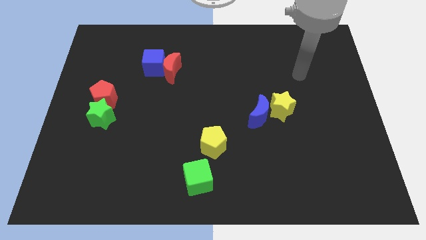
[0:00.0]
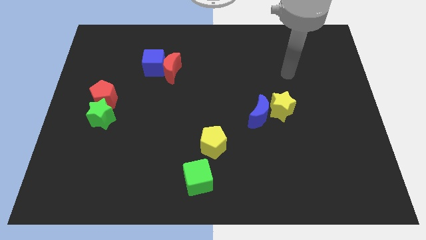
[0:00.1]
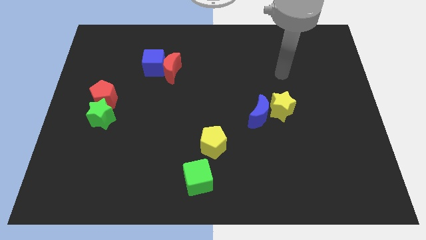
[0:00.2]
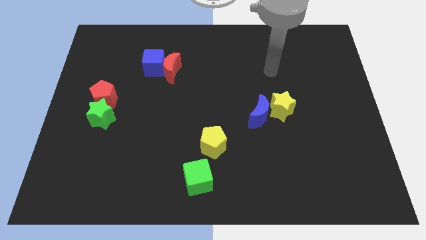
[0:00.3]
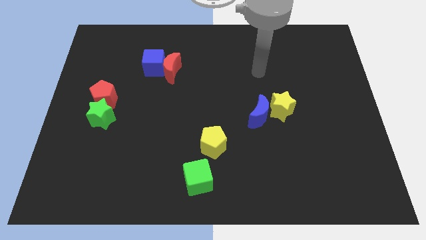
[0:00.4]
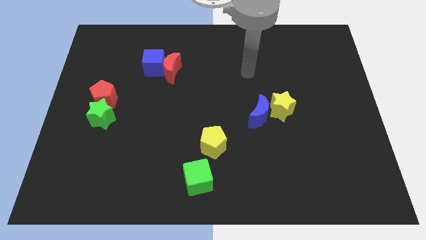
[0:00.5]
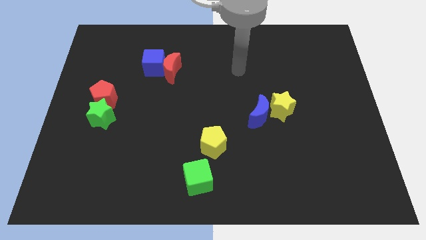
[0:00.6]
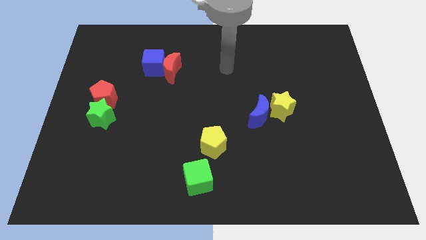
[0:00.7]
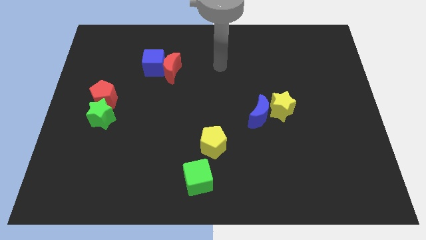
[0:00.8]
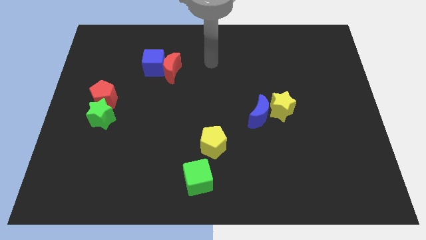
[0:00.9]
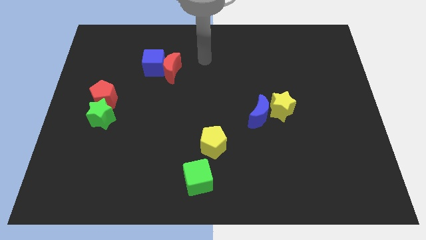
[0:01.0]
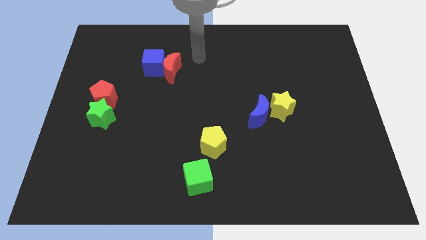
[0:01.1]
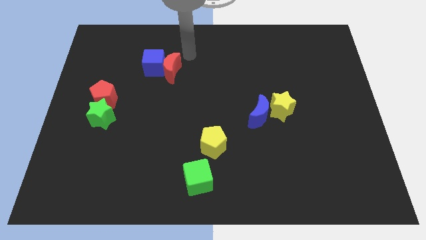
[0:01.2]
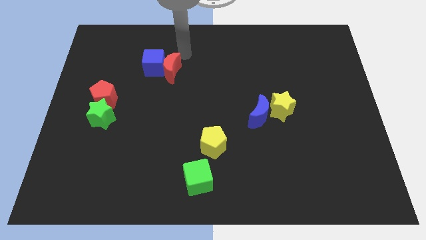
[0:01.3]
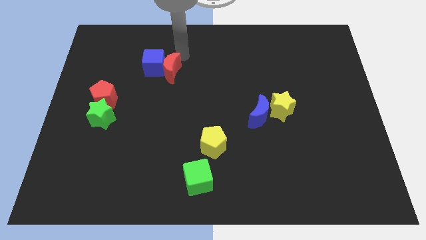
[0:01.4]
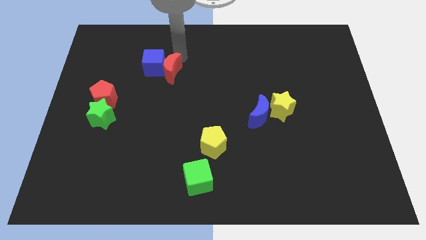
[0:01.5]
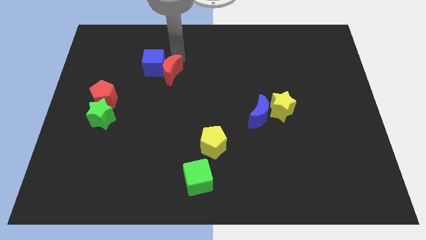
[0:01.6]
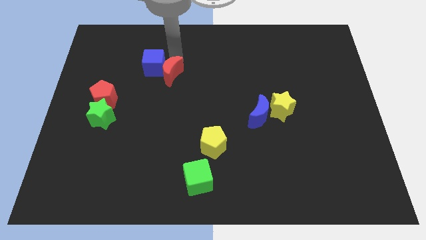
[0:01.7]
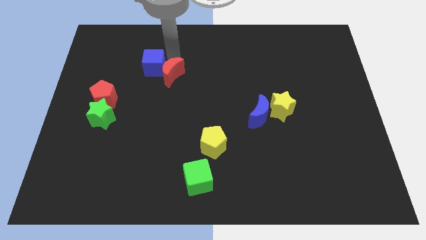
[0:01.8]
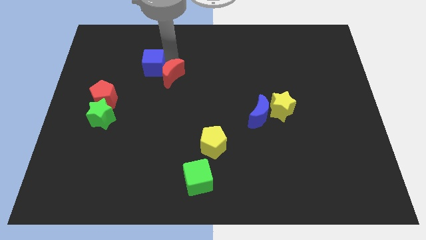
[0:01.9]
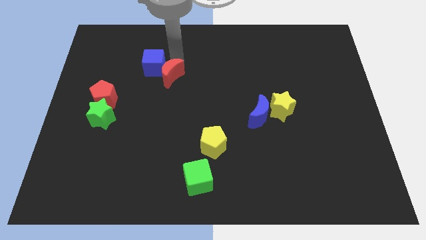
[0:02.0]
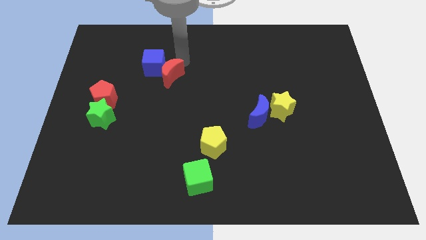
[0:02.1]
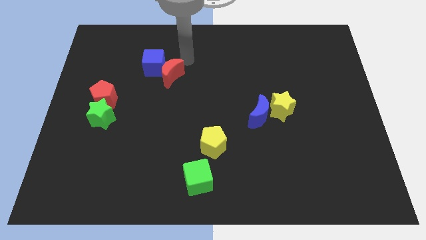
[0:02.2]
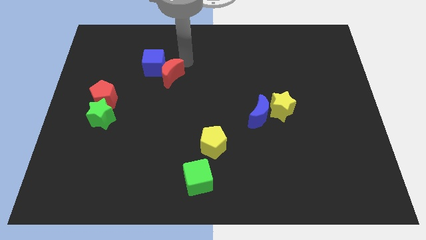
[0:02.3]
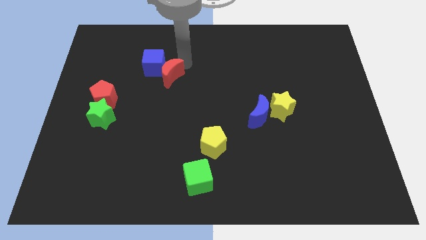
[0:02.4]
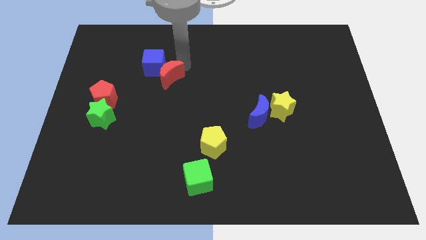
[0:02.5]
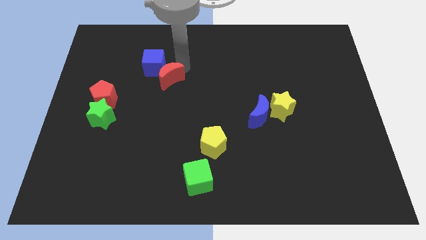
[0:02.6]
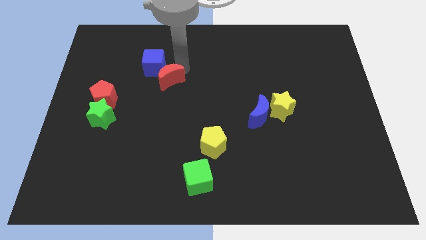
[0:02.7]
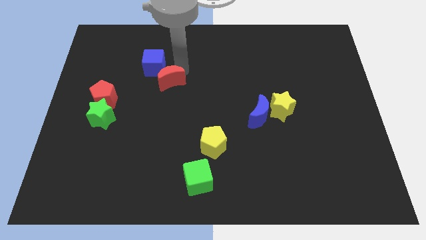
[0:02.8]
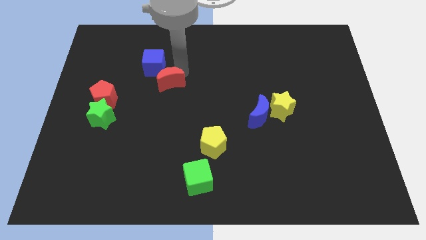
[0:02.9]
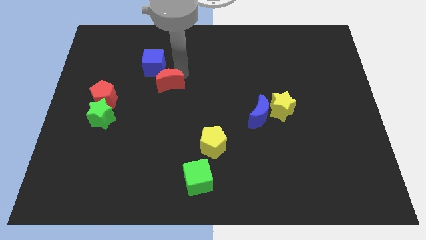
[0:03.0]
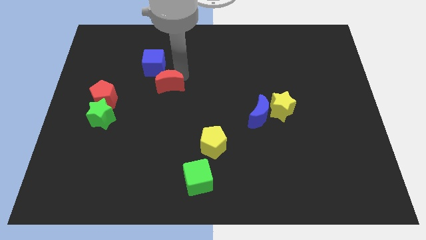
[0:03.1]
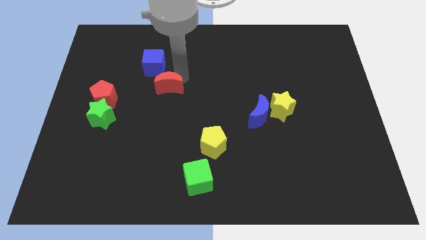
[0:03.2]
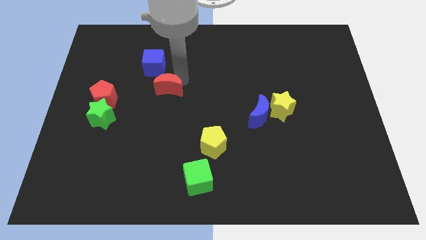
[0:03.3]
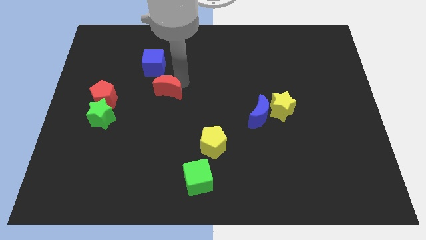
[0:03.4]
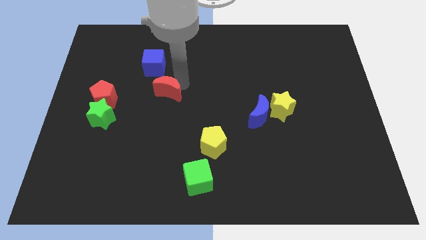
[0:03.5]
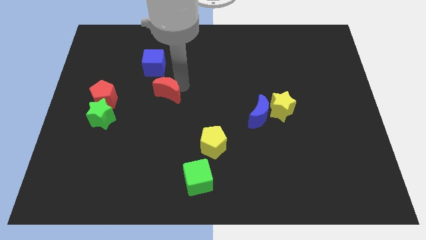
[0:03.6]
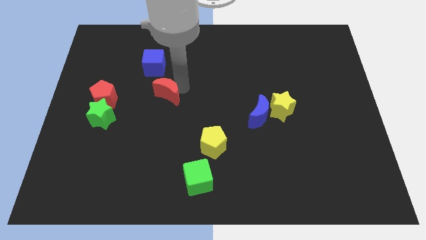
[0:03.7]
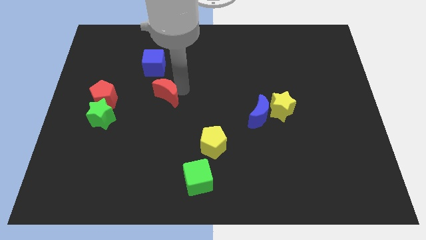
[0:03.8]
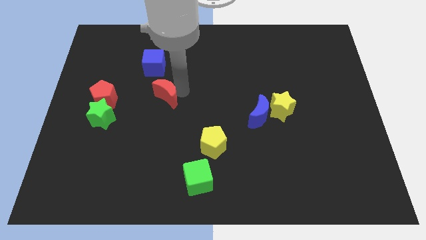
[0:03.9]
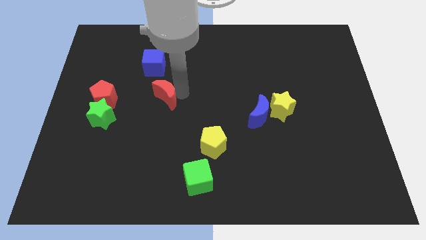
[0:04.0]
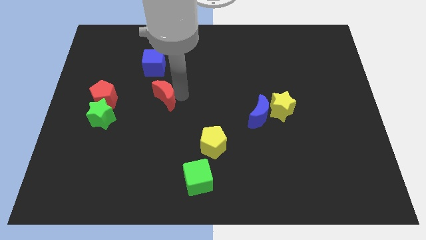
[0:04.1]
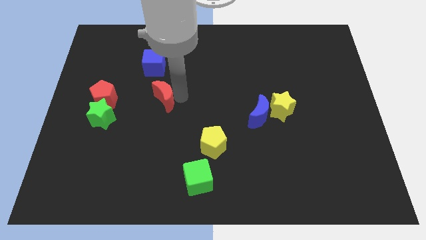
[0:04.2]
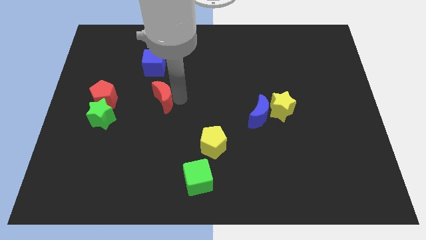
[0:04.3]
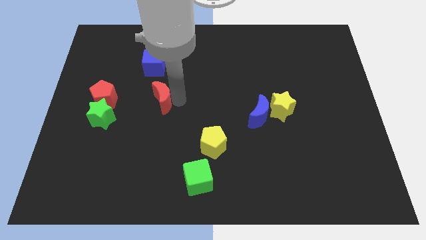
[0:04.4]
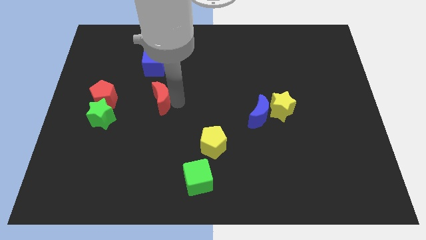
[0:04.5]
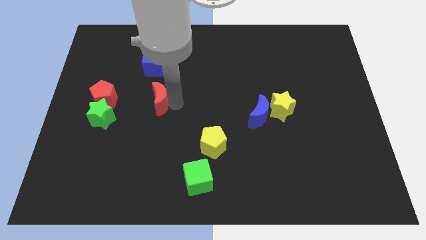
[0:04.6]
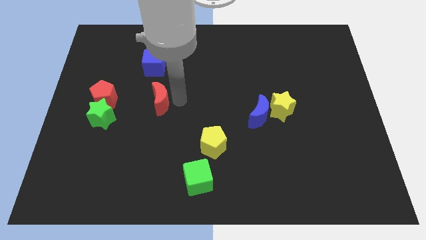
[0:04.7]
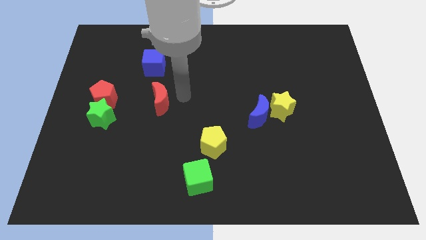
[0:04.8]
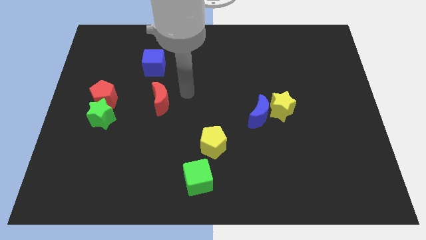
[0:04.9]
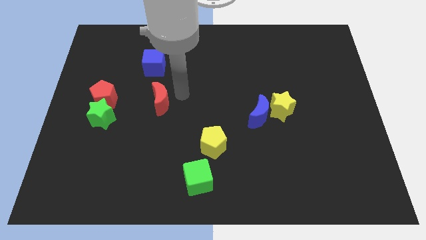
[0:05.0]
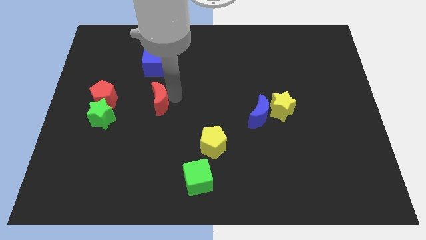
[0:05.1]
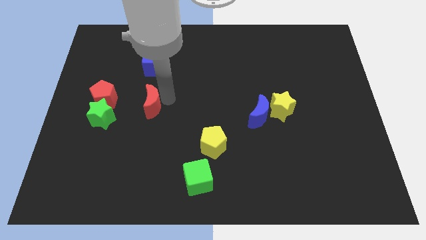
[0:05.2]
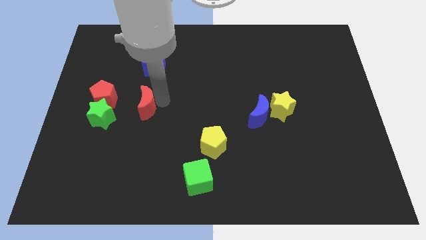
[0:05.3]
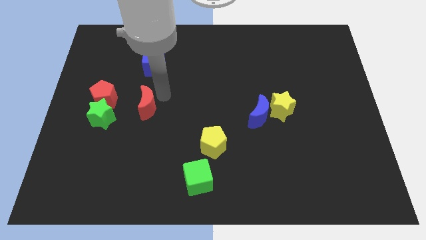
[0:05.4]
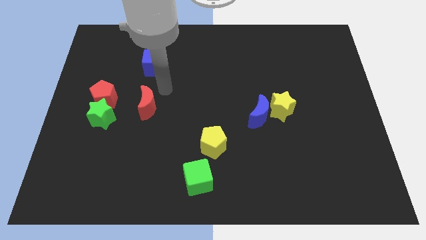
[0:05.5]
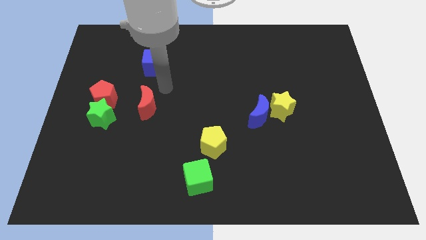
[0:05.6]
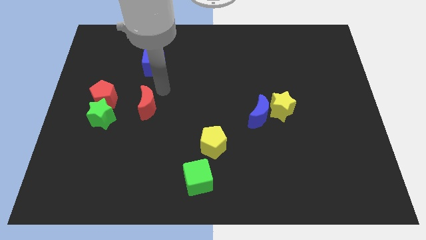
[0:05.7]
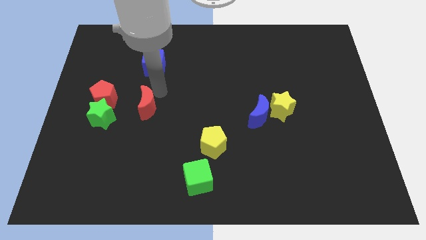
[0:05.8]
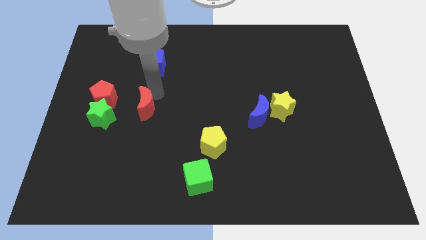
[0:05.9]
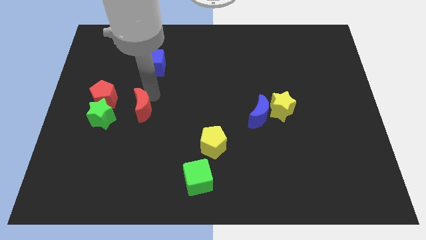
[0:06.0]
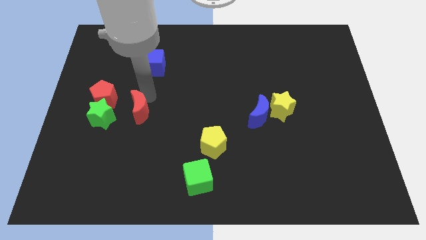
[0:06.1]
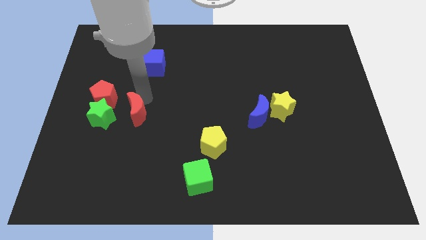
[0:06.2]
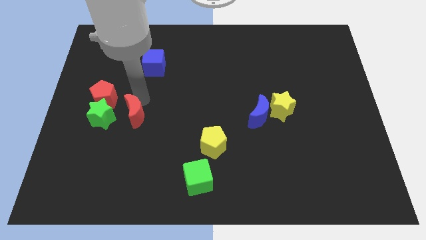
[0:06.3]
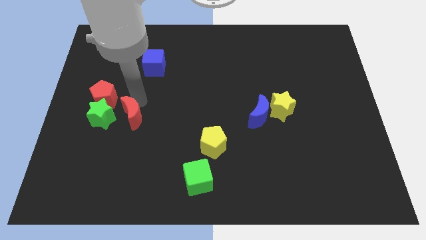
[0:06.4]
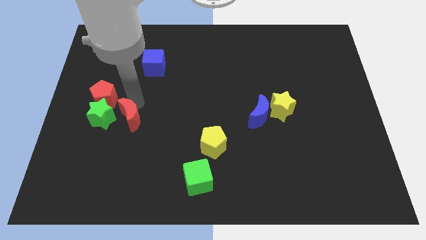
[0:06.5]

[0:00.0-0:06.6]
slide the red moon to the bottom right side of the green star

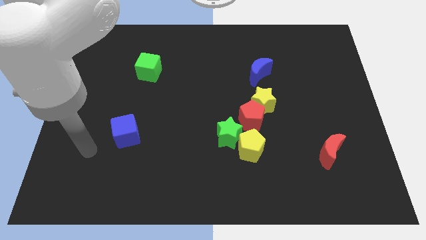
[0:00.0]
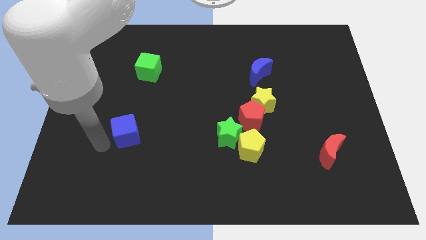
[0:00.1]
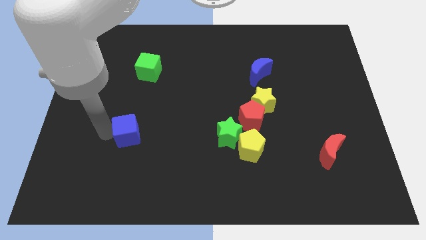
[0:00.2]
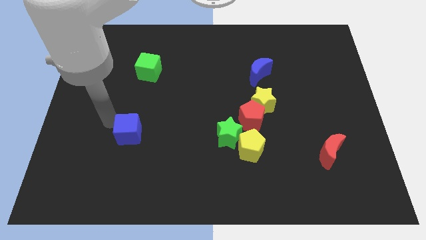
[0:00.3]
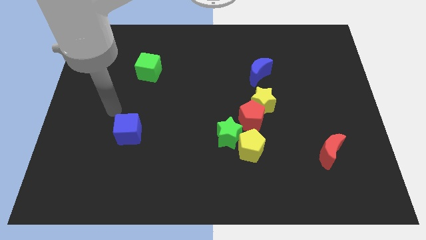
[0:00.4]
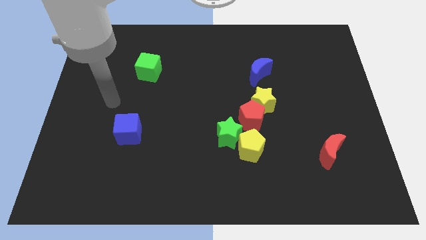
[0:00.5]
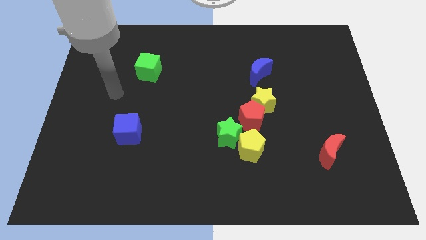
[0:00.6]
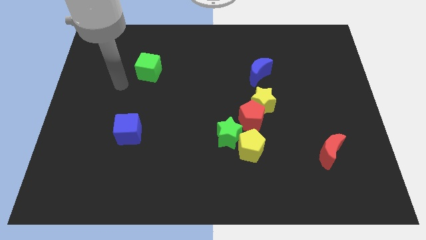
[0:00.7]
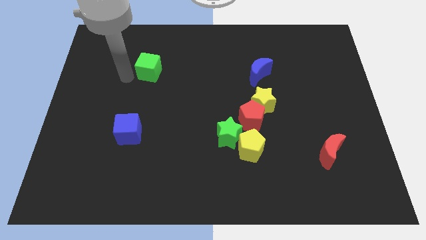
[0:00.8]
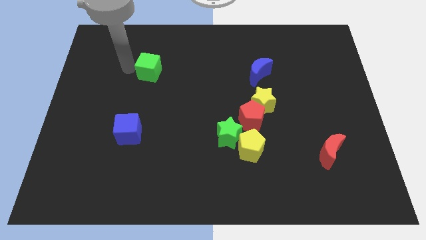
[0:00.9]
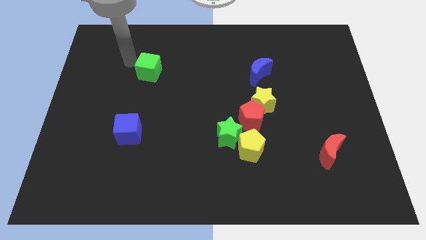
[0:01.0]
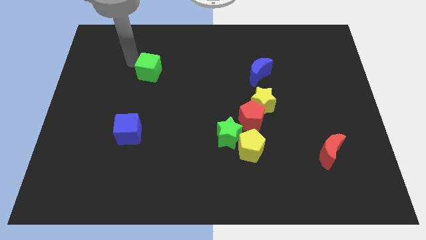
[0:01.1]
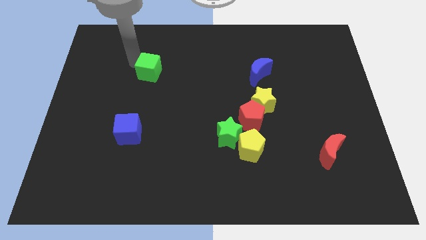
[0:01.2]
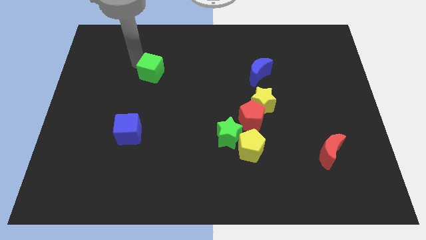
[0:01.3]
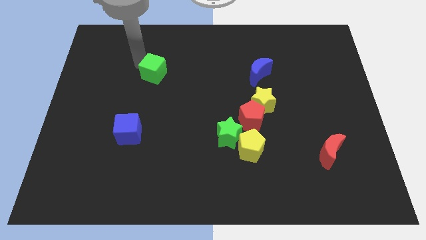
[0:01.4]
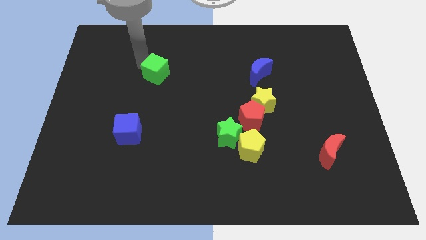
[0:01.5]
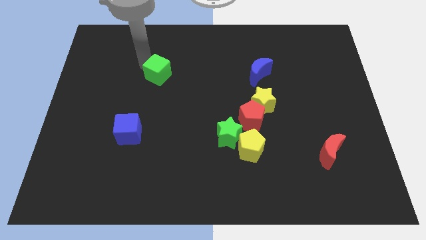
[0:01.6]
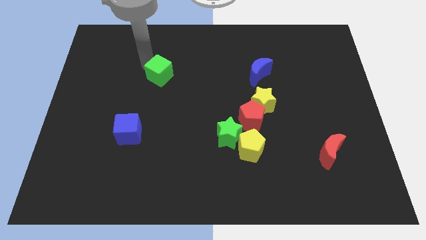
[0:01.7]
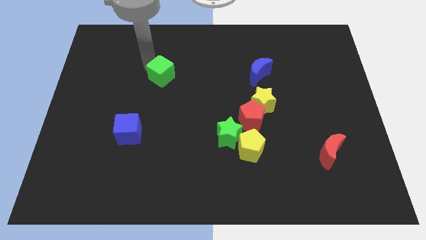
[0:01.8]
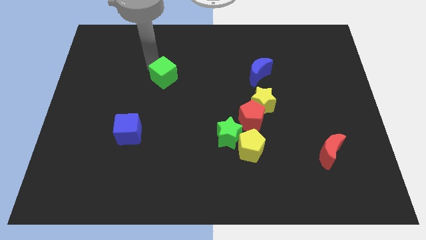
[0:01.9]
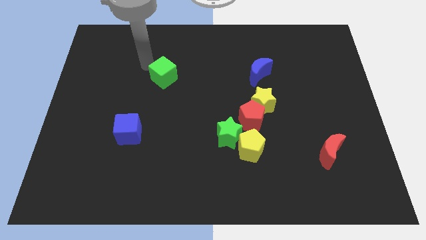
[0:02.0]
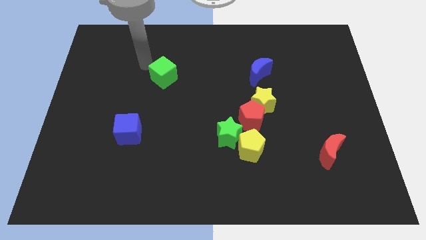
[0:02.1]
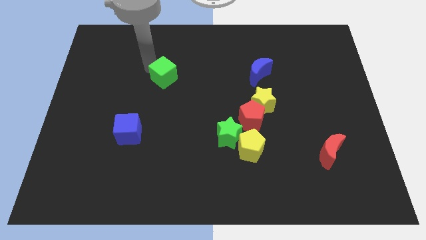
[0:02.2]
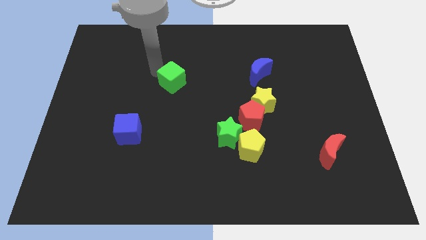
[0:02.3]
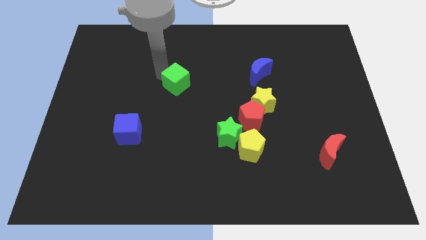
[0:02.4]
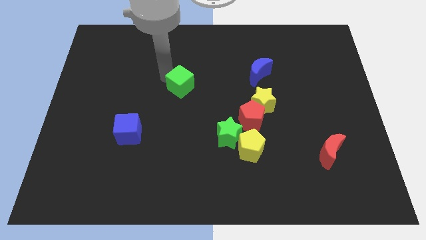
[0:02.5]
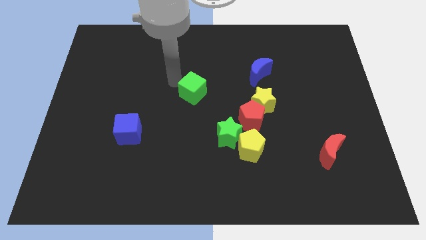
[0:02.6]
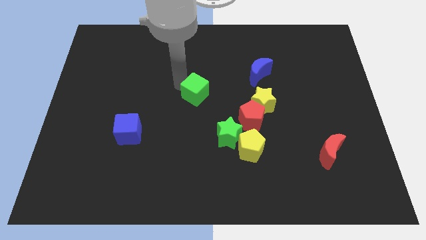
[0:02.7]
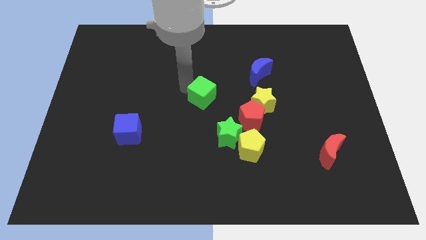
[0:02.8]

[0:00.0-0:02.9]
slide the green cube just left of the yellow star
